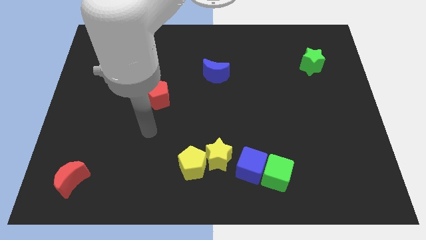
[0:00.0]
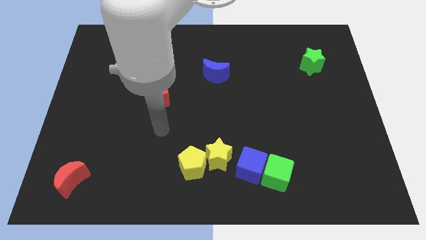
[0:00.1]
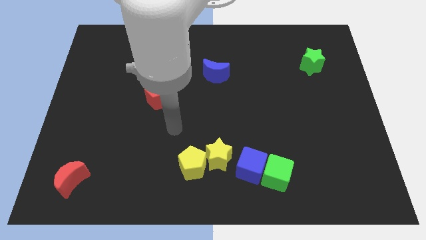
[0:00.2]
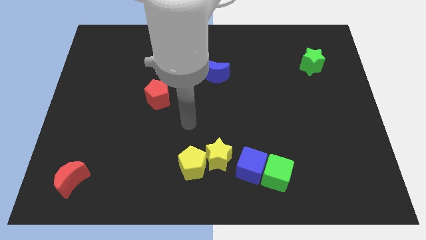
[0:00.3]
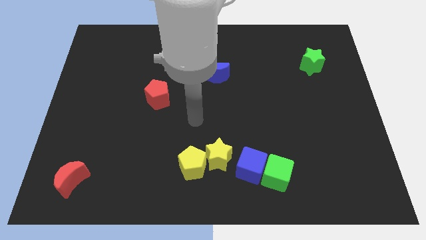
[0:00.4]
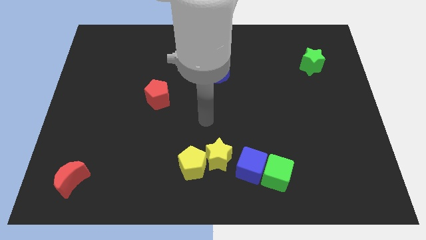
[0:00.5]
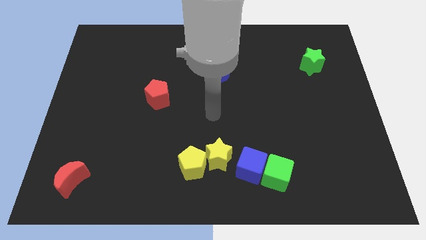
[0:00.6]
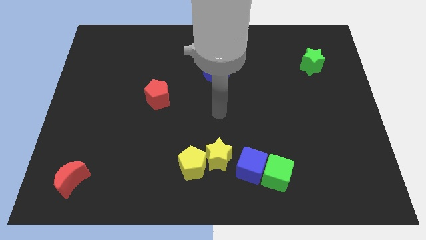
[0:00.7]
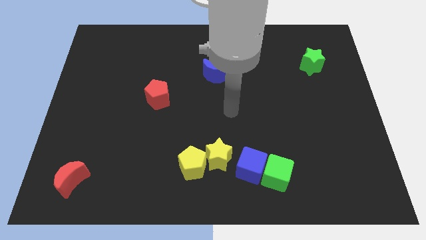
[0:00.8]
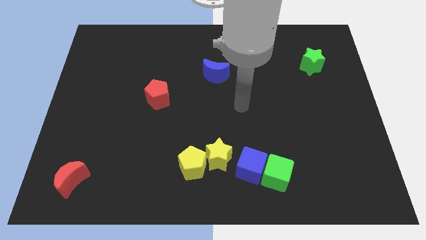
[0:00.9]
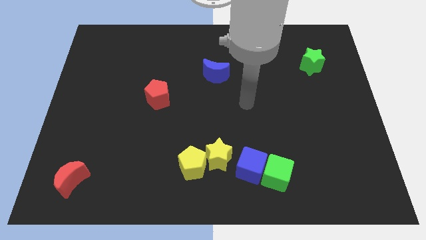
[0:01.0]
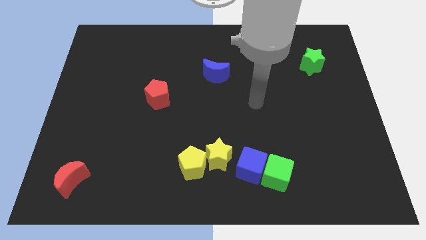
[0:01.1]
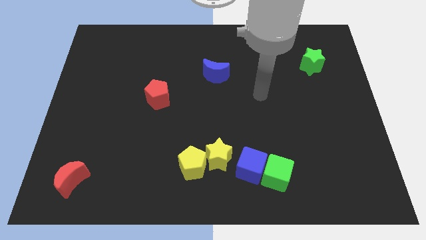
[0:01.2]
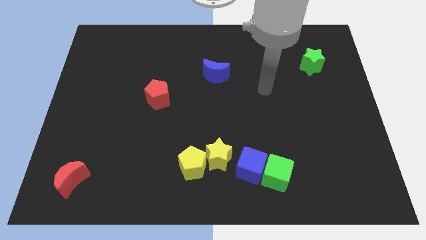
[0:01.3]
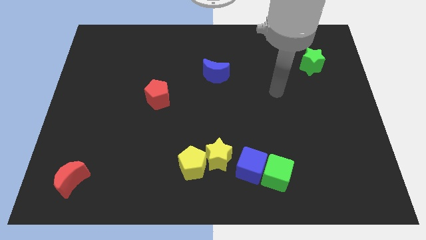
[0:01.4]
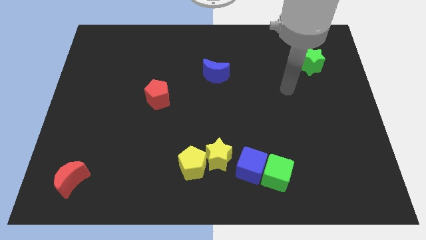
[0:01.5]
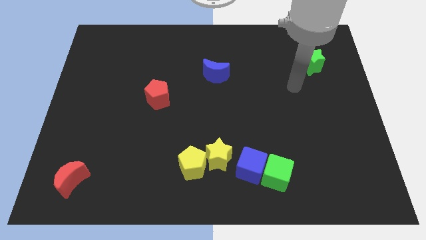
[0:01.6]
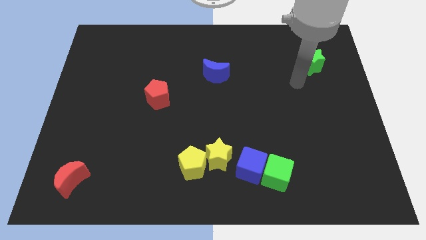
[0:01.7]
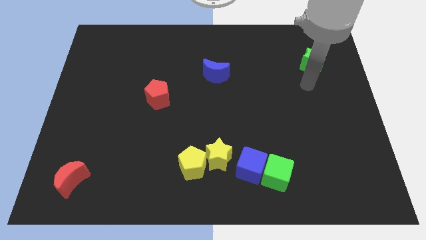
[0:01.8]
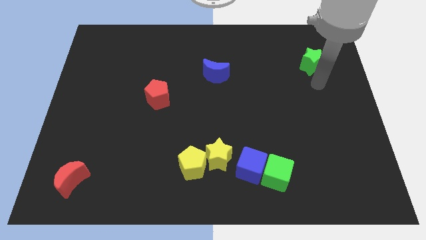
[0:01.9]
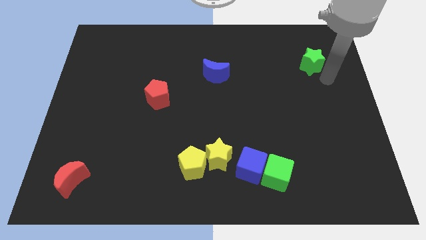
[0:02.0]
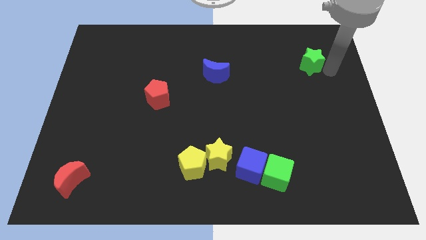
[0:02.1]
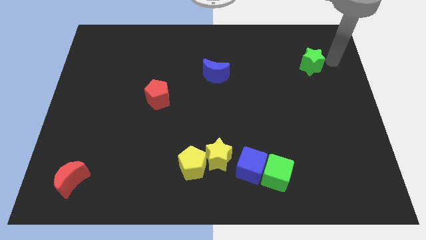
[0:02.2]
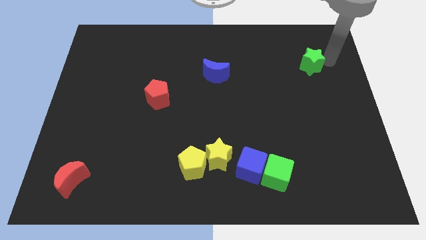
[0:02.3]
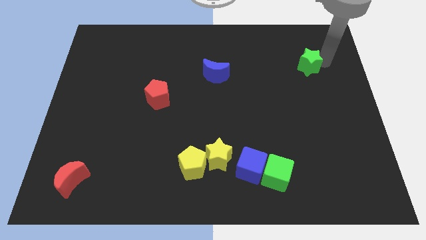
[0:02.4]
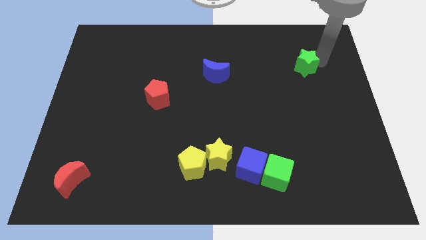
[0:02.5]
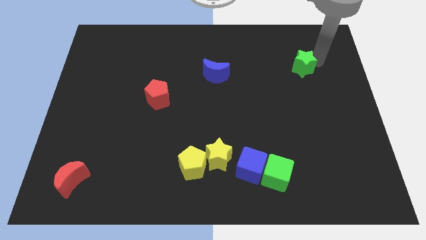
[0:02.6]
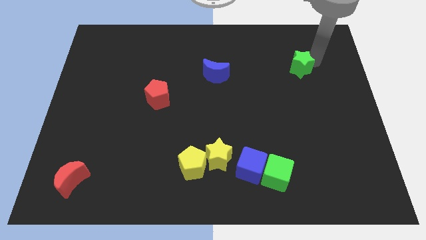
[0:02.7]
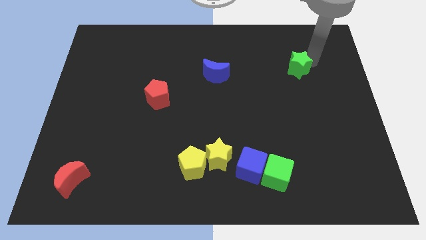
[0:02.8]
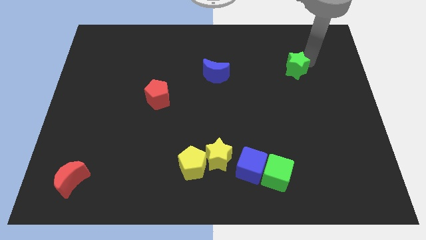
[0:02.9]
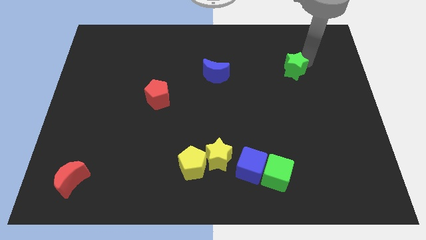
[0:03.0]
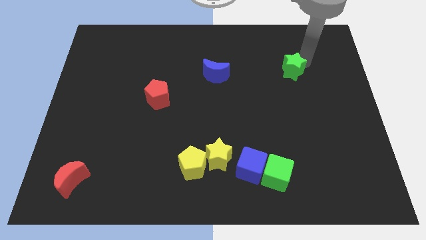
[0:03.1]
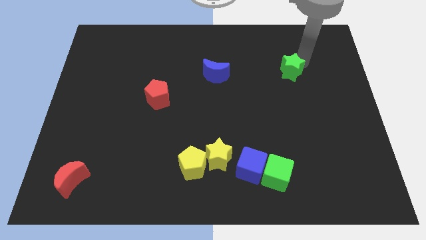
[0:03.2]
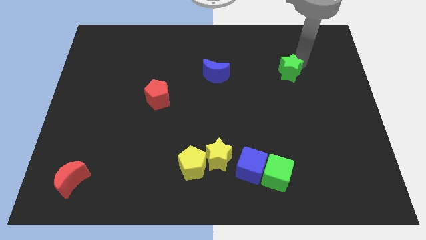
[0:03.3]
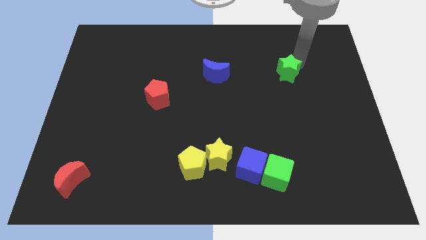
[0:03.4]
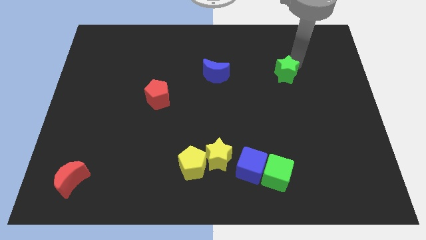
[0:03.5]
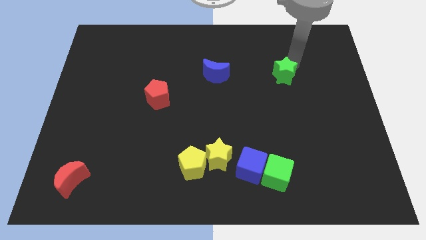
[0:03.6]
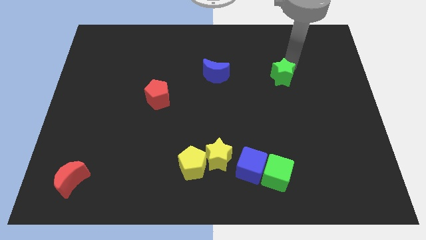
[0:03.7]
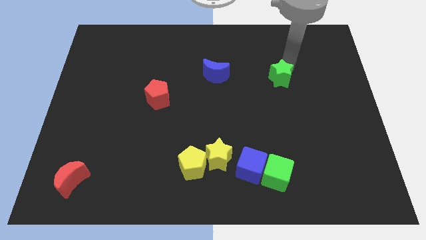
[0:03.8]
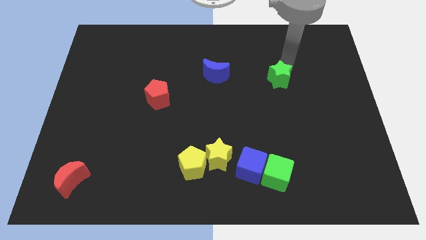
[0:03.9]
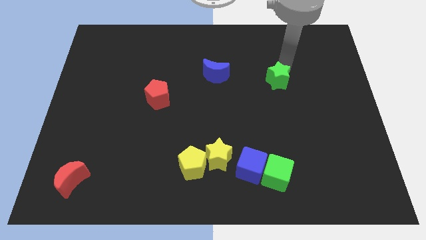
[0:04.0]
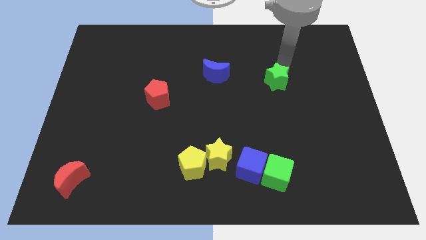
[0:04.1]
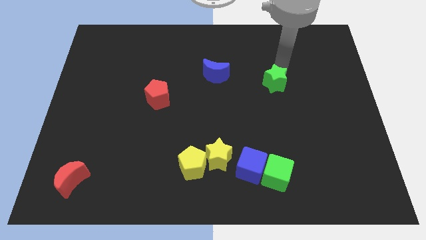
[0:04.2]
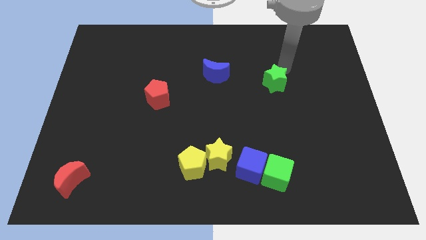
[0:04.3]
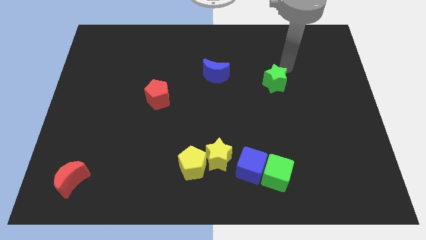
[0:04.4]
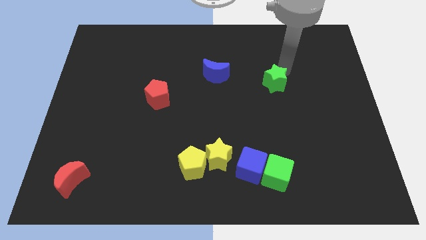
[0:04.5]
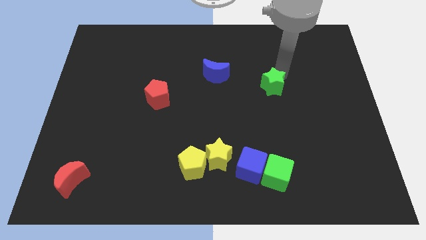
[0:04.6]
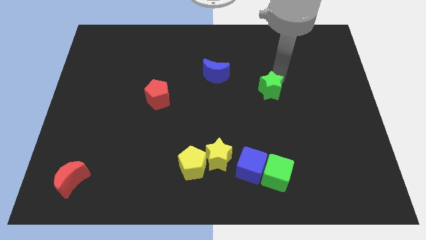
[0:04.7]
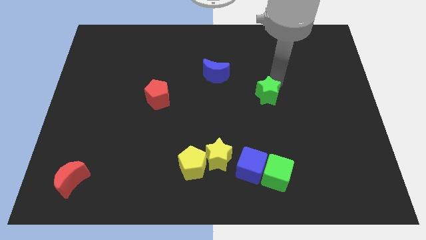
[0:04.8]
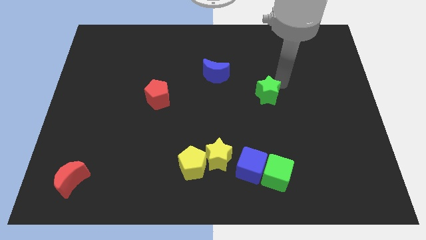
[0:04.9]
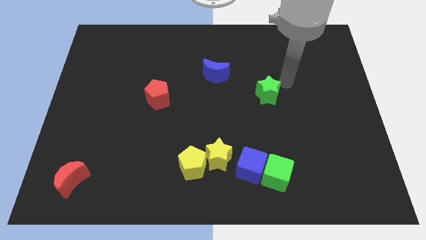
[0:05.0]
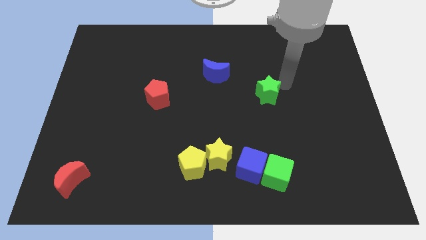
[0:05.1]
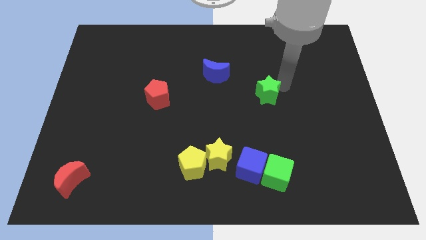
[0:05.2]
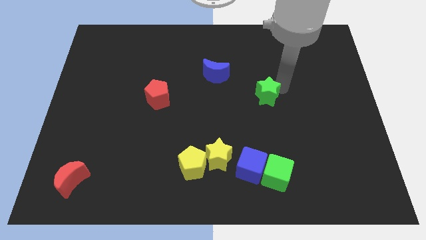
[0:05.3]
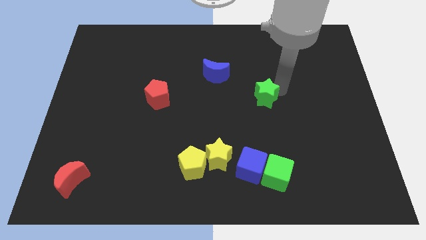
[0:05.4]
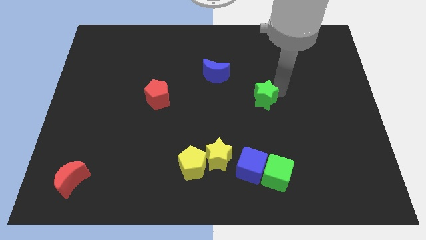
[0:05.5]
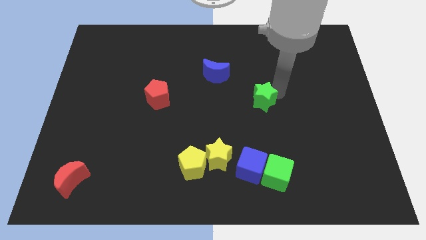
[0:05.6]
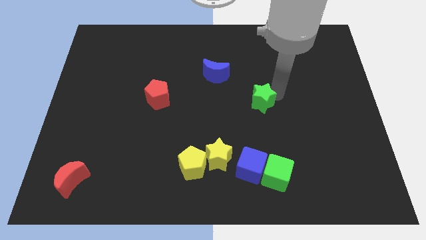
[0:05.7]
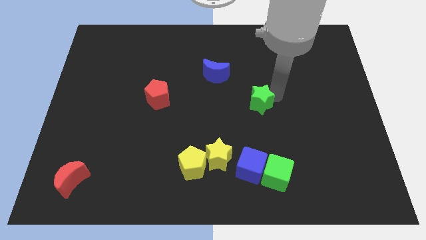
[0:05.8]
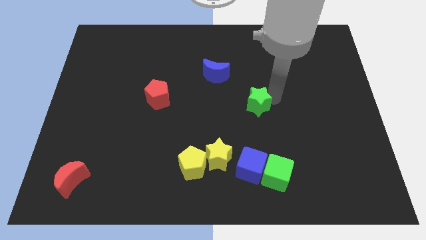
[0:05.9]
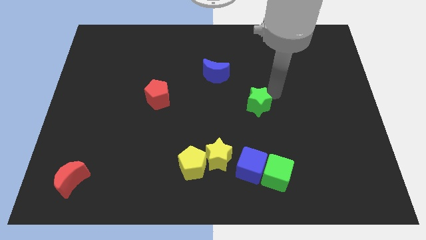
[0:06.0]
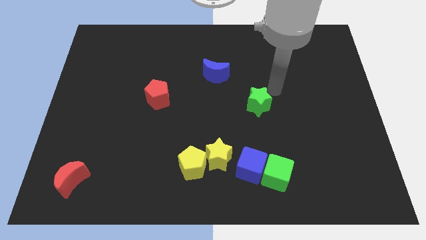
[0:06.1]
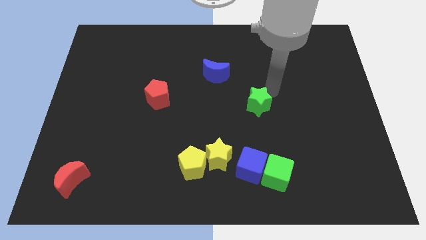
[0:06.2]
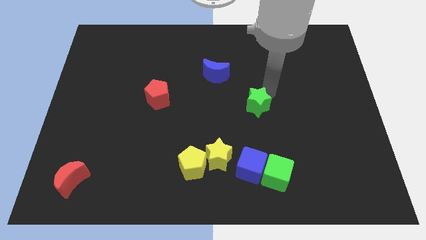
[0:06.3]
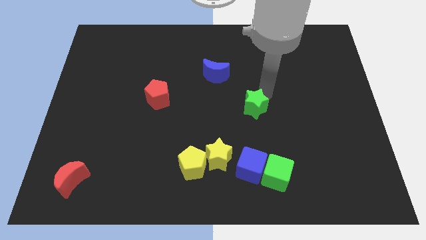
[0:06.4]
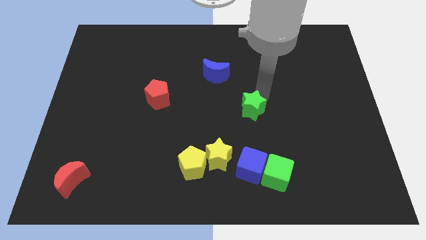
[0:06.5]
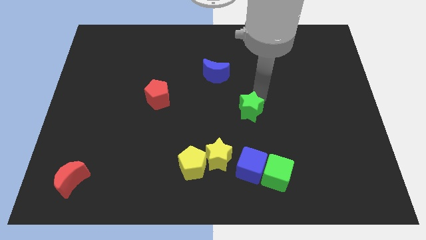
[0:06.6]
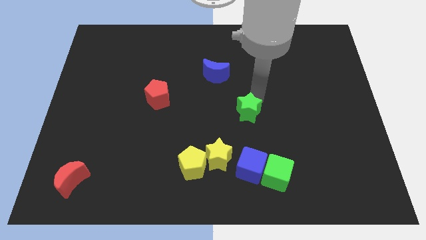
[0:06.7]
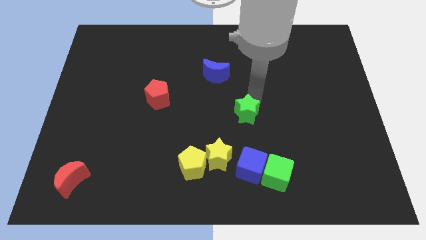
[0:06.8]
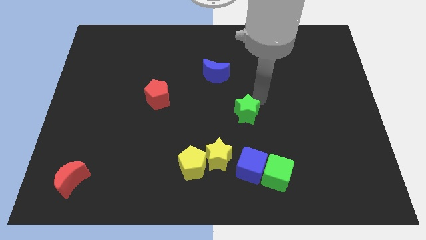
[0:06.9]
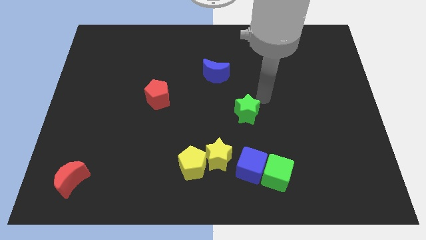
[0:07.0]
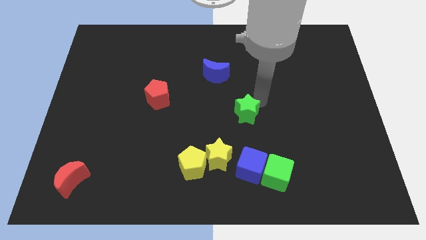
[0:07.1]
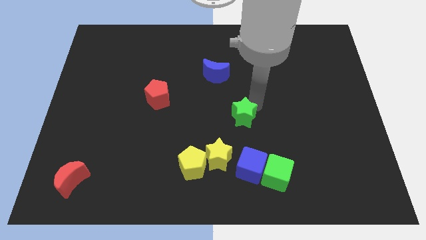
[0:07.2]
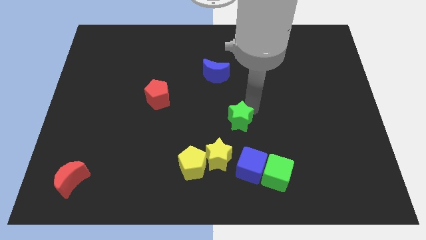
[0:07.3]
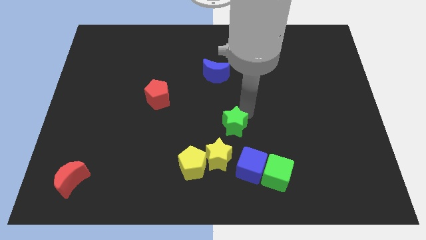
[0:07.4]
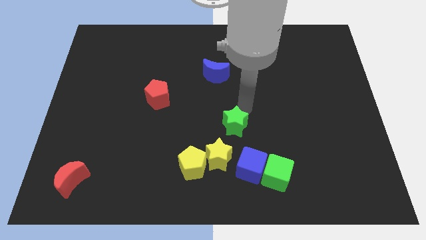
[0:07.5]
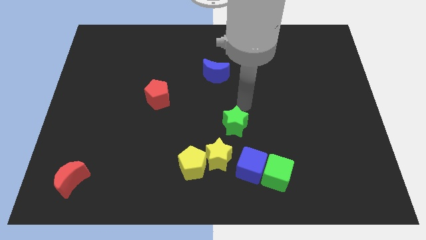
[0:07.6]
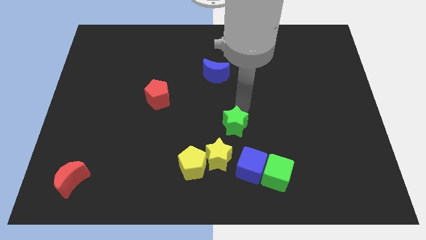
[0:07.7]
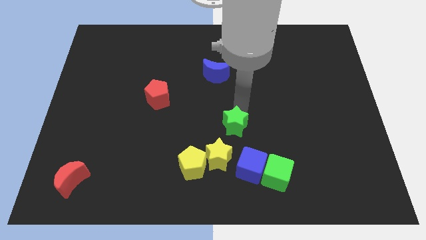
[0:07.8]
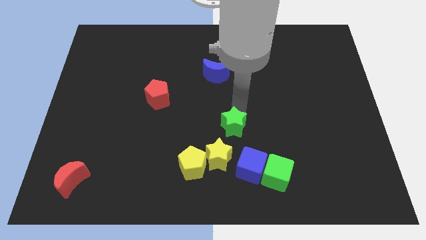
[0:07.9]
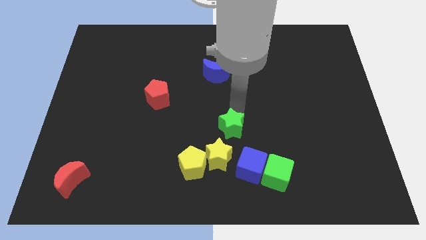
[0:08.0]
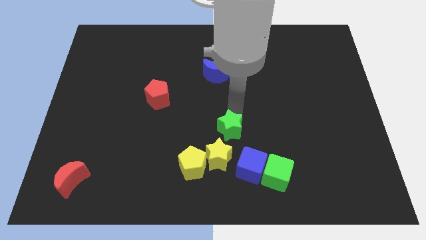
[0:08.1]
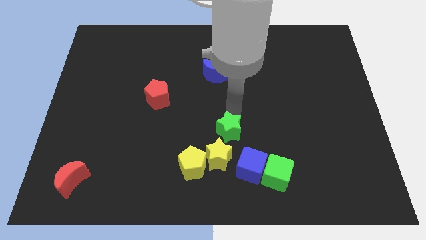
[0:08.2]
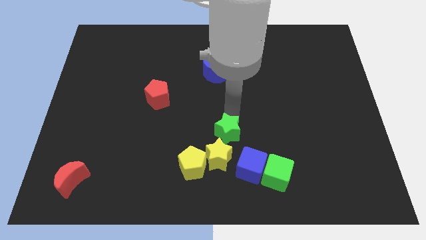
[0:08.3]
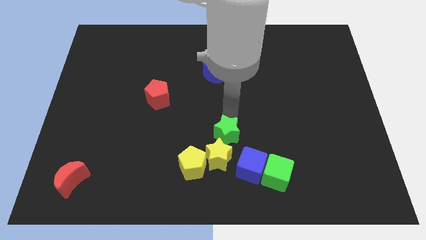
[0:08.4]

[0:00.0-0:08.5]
slide the green star to the yellow star
